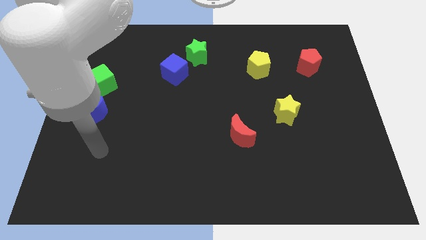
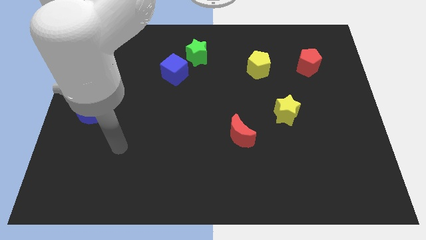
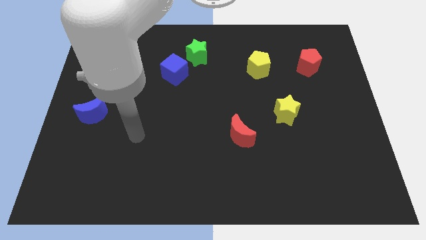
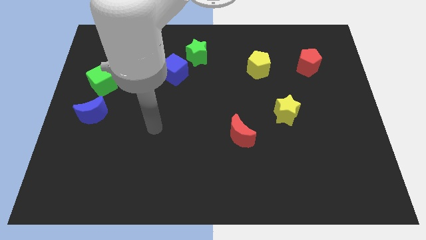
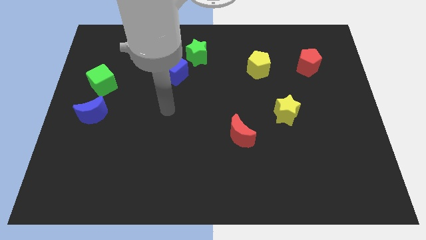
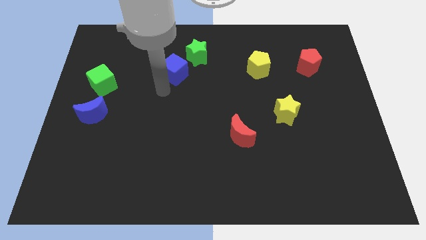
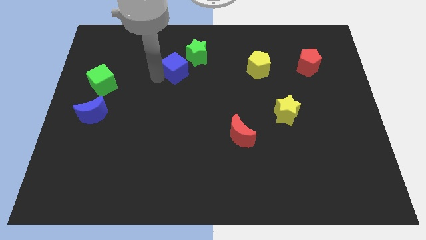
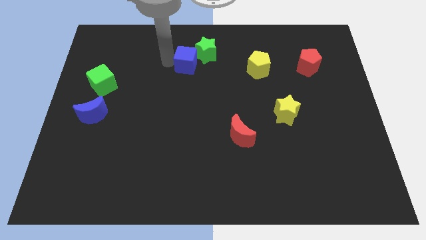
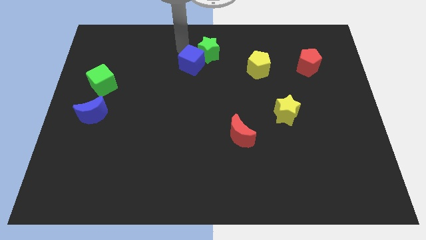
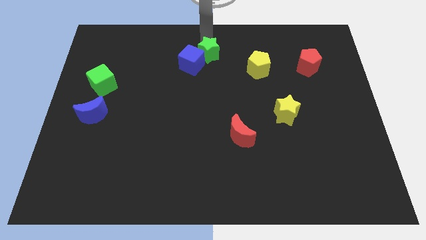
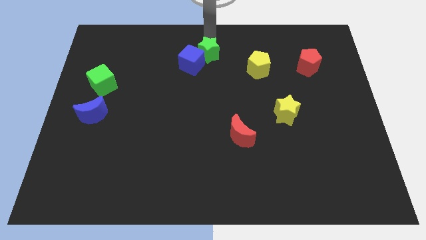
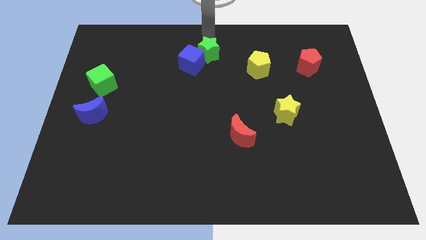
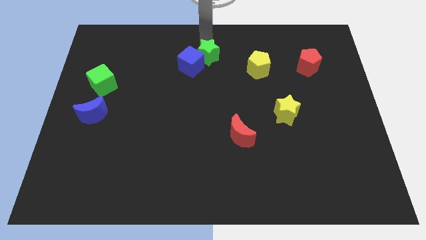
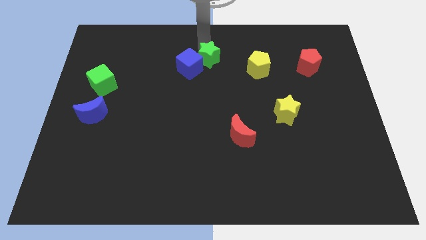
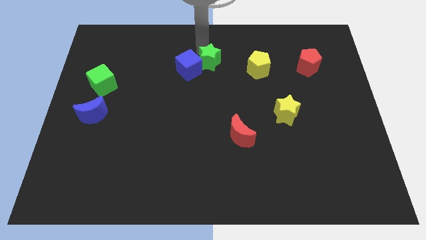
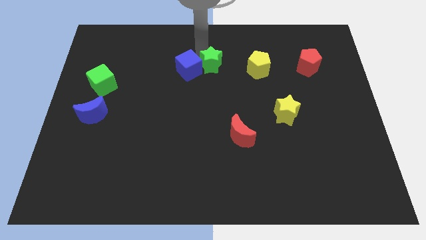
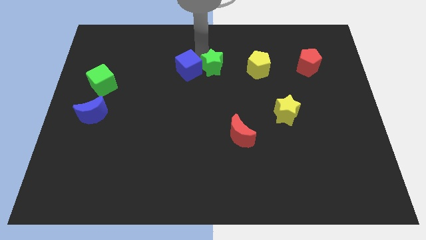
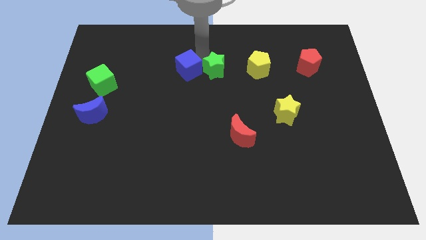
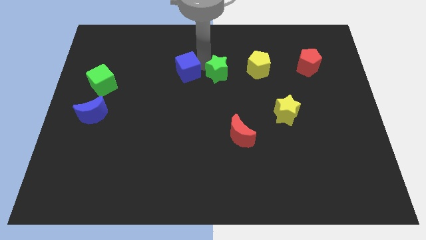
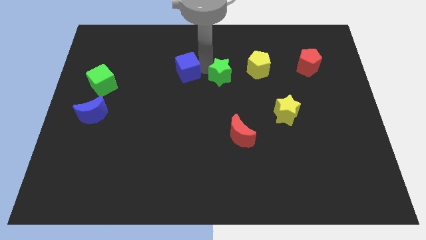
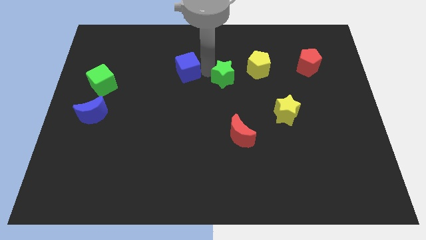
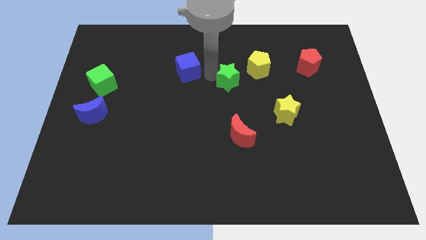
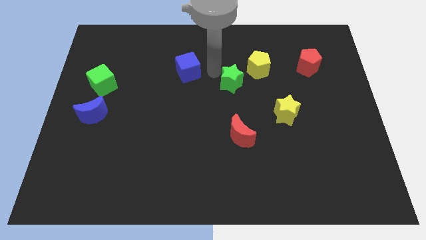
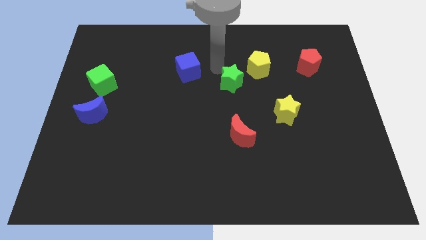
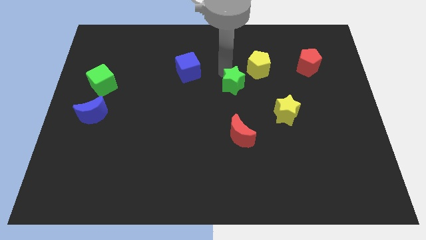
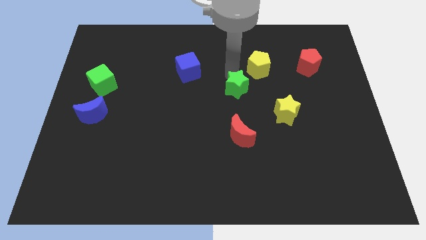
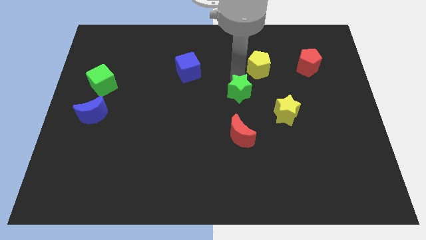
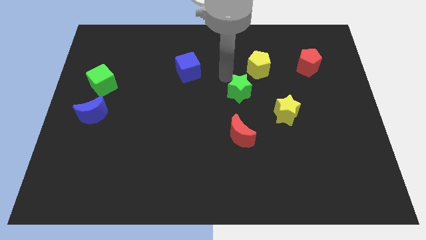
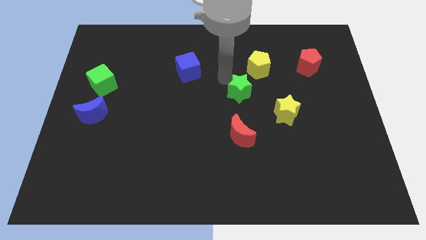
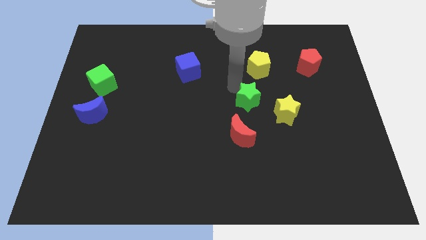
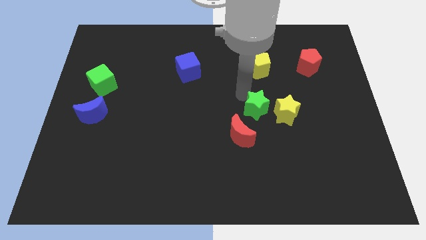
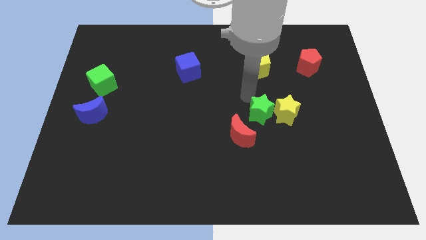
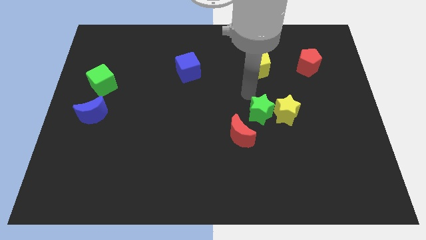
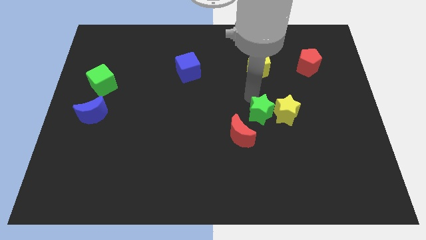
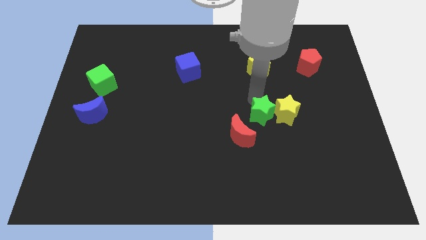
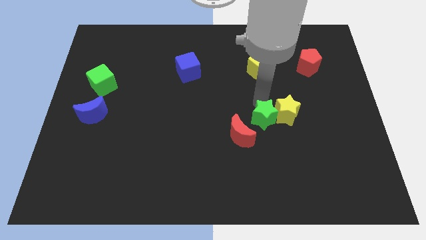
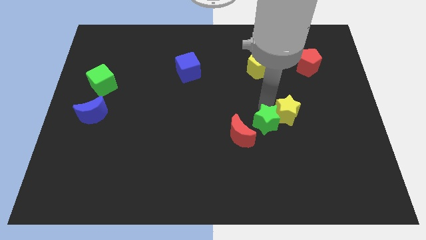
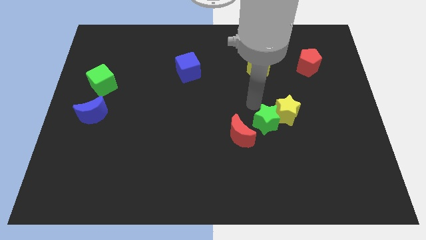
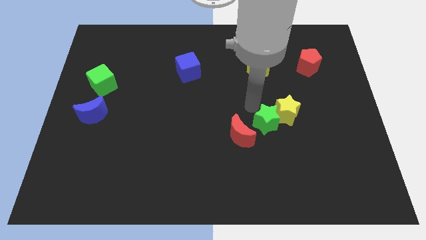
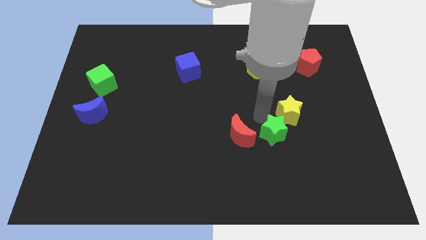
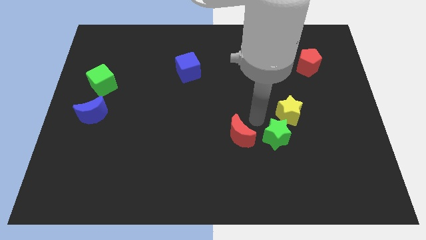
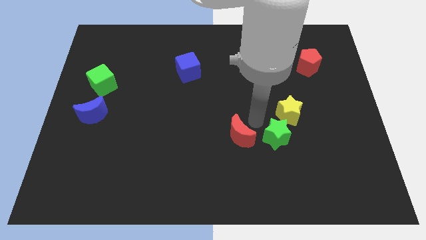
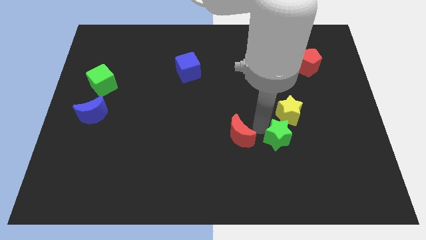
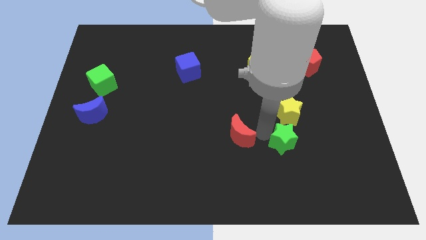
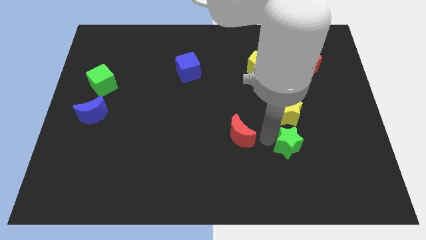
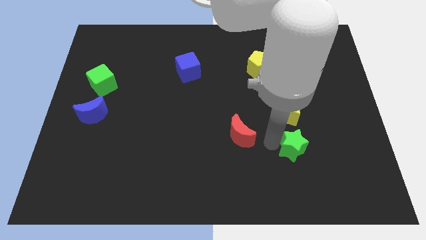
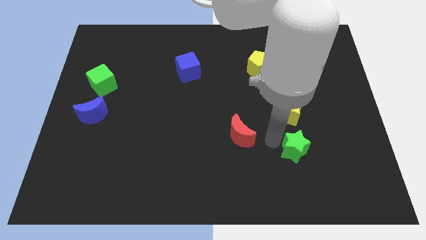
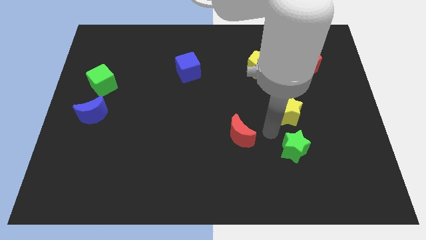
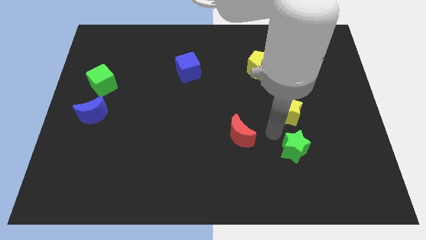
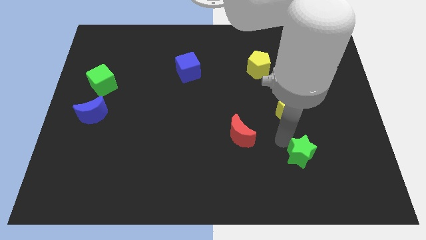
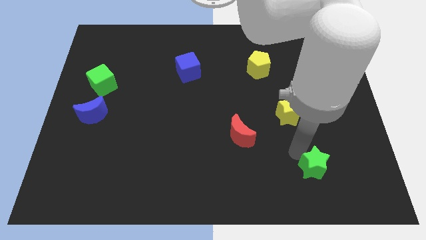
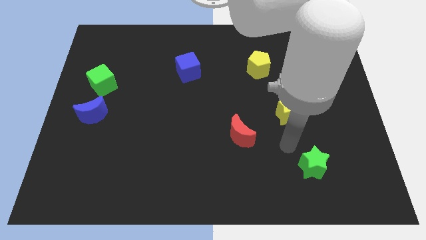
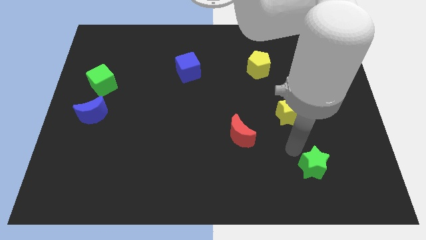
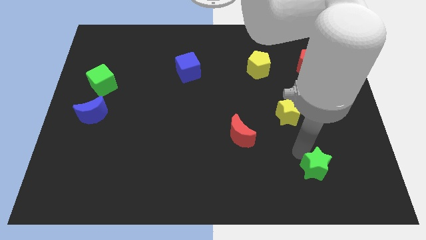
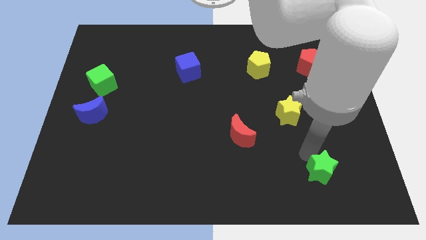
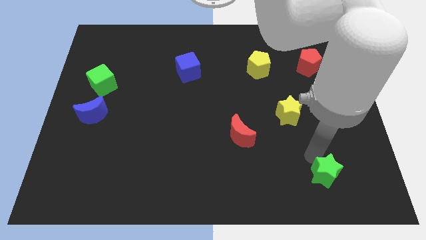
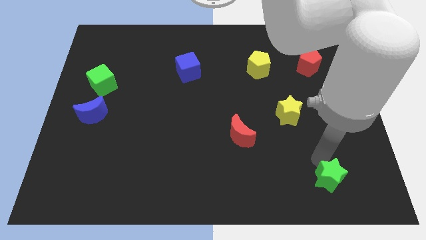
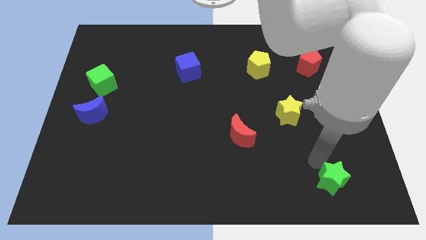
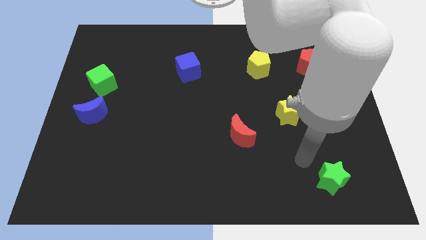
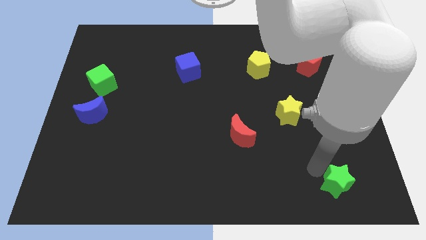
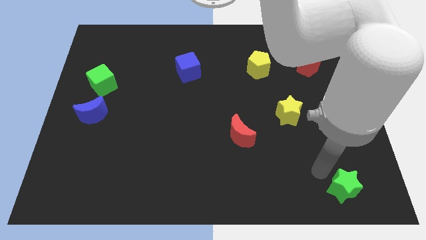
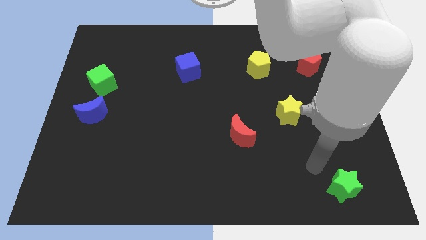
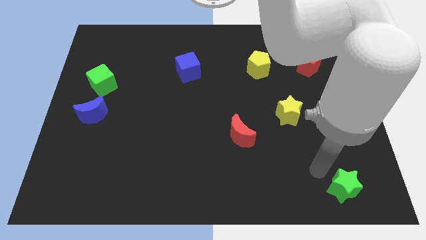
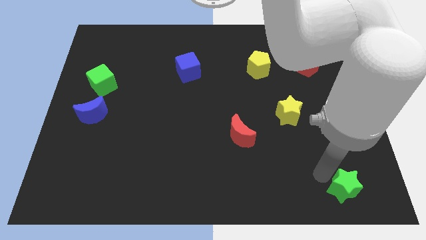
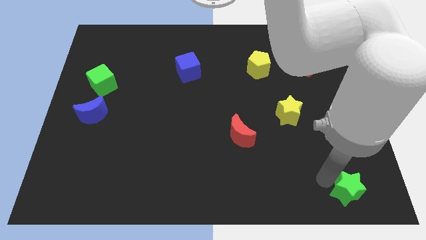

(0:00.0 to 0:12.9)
put the green star to the bottom right

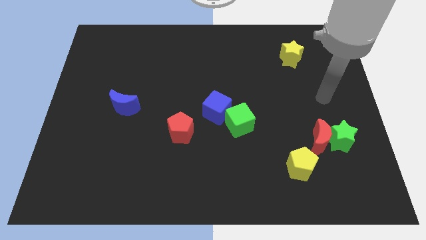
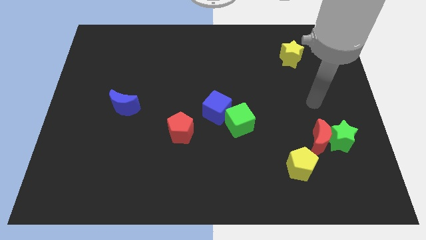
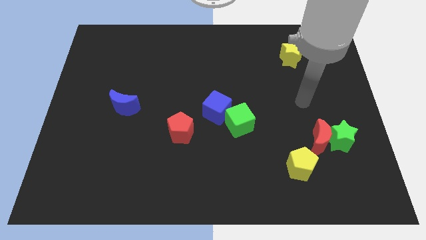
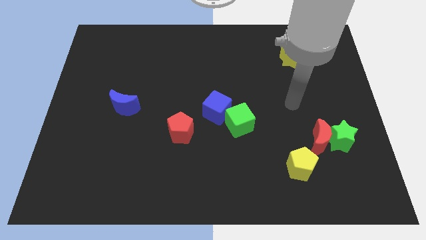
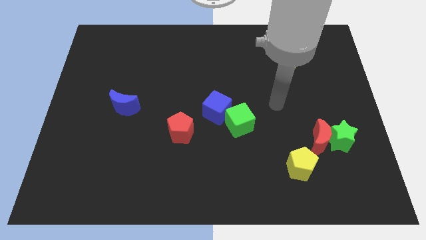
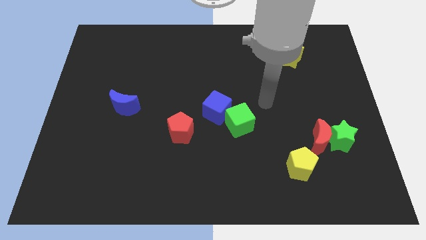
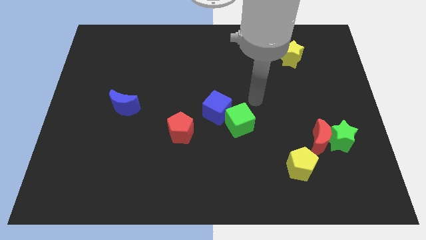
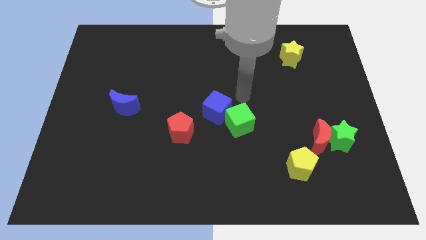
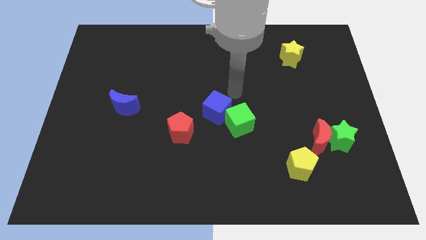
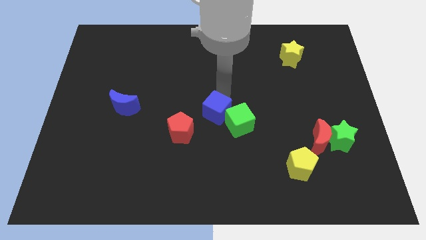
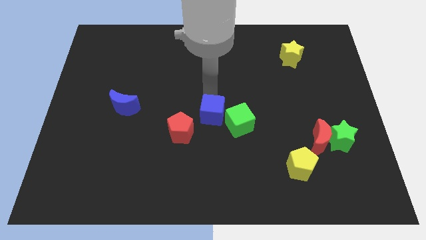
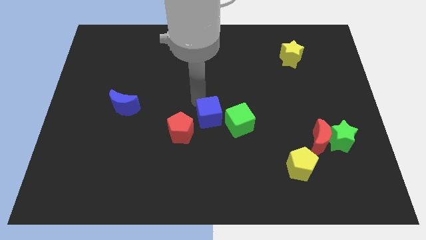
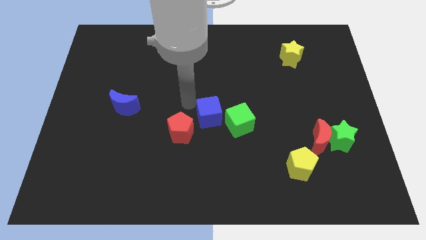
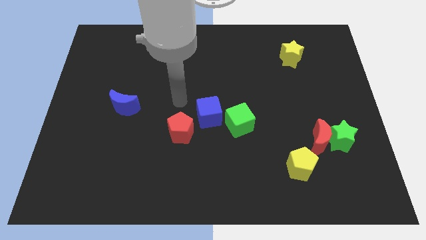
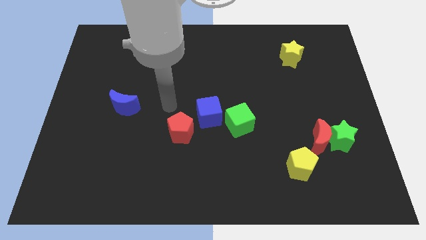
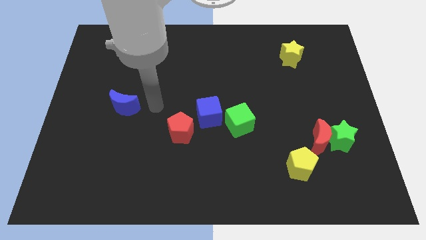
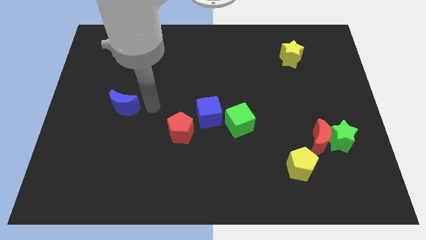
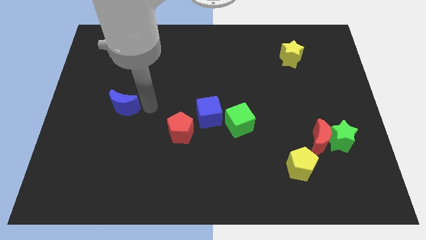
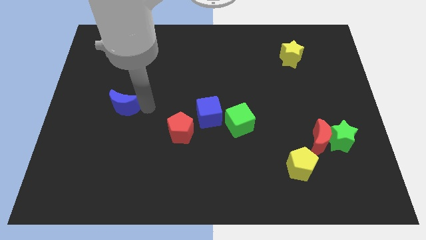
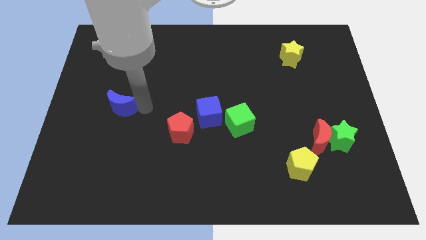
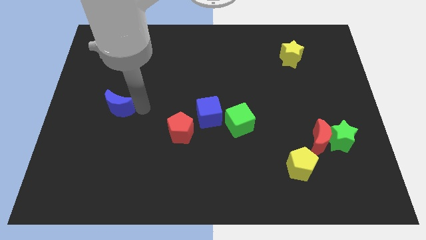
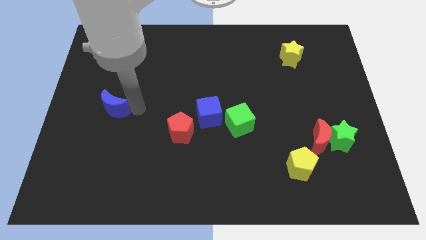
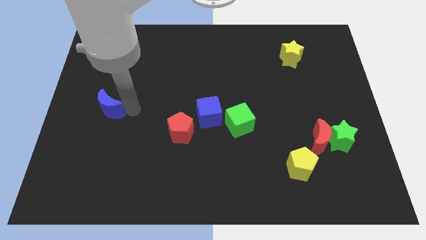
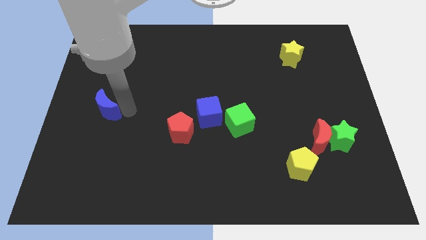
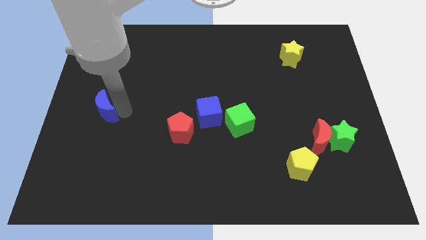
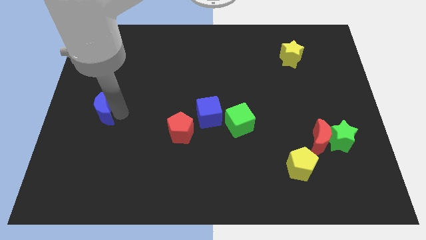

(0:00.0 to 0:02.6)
move the blue moon to the left side
